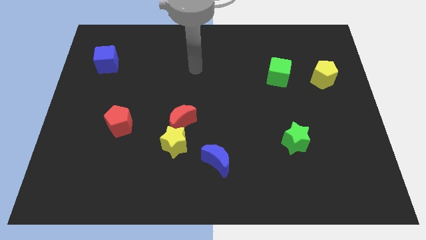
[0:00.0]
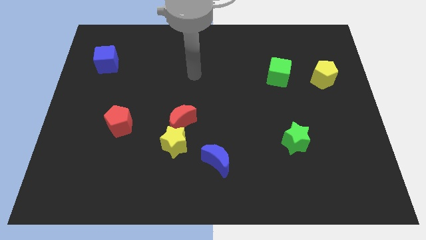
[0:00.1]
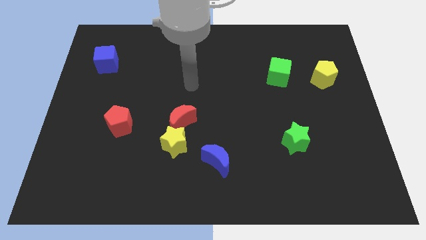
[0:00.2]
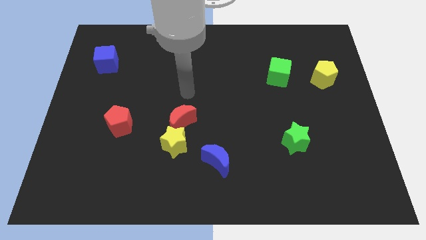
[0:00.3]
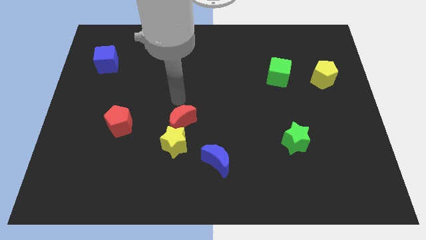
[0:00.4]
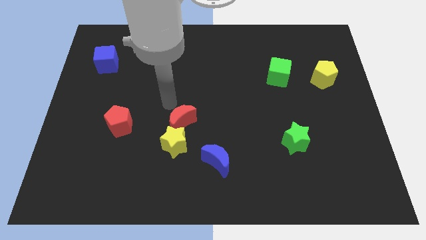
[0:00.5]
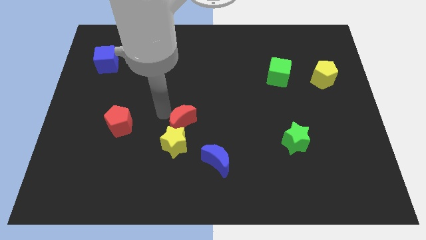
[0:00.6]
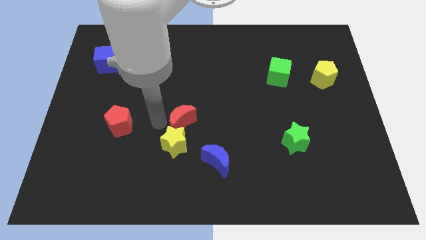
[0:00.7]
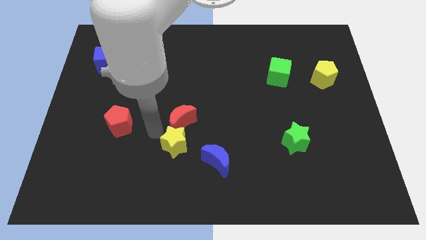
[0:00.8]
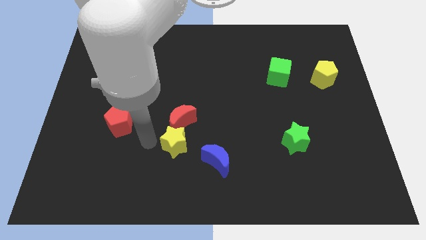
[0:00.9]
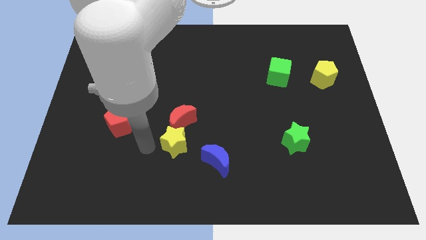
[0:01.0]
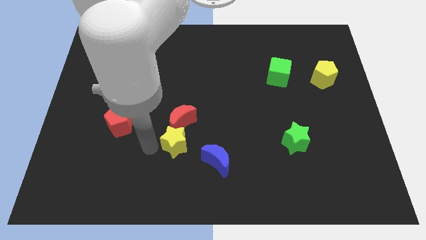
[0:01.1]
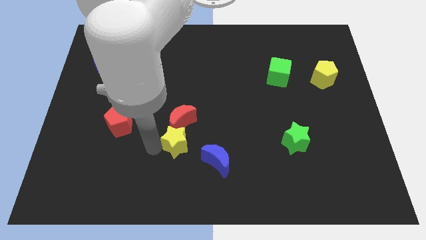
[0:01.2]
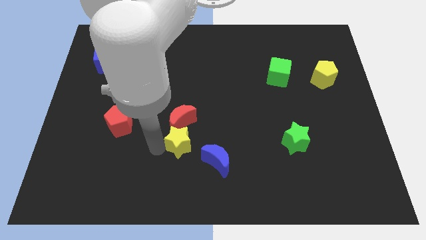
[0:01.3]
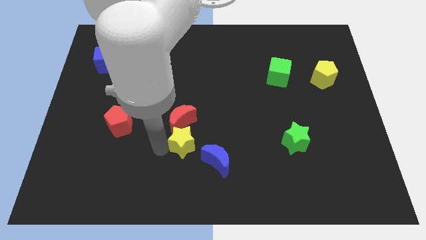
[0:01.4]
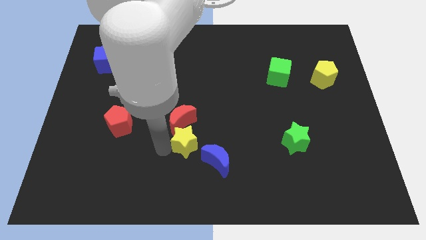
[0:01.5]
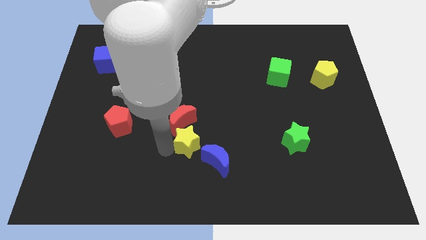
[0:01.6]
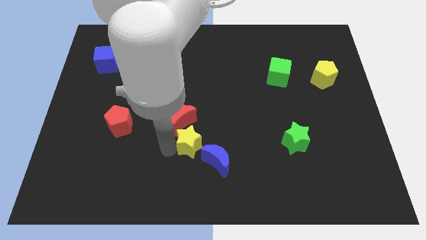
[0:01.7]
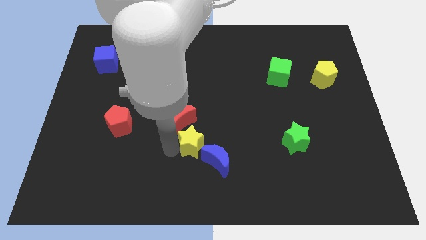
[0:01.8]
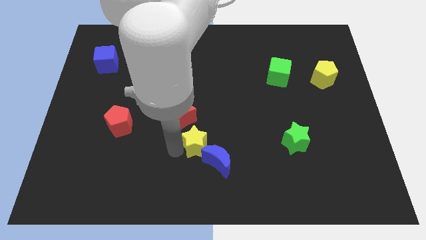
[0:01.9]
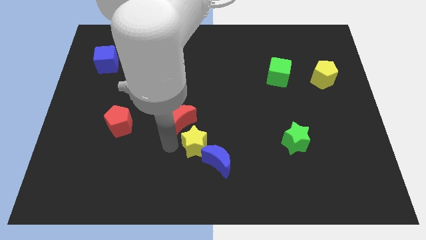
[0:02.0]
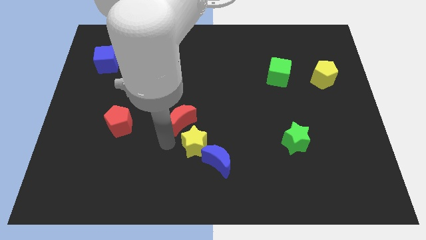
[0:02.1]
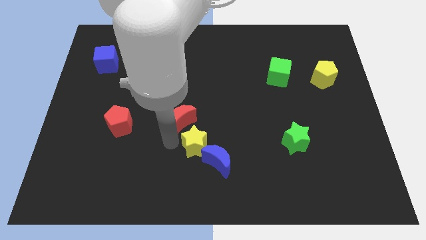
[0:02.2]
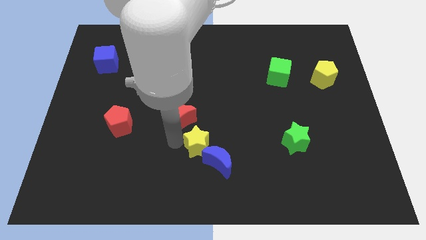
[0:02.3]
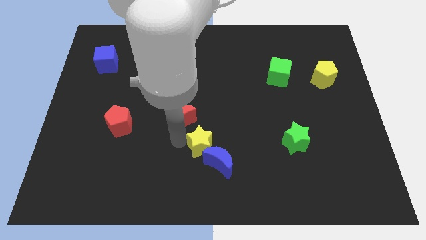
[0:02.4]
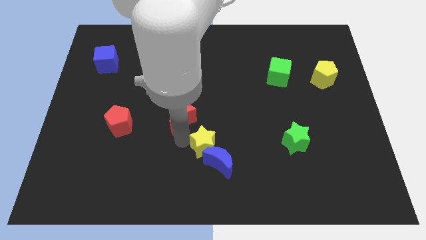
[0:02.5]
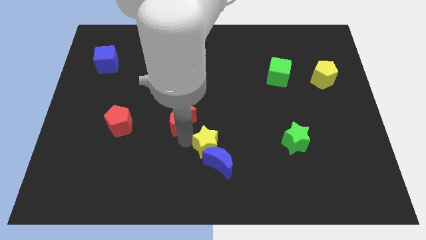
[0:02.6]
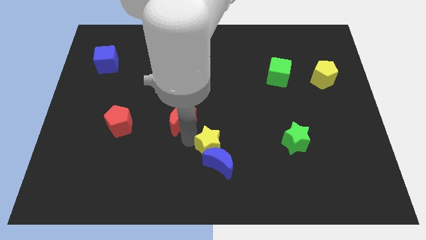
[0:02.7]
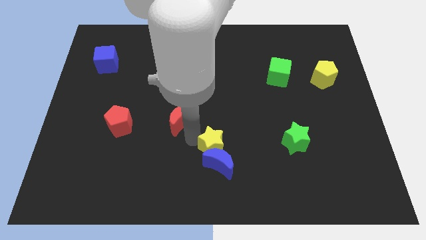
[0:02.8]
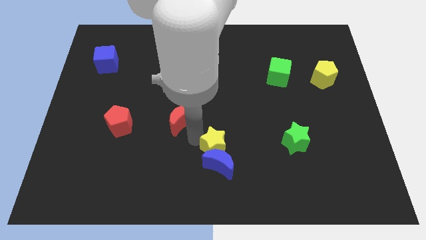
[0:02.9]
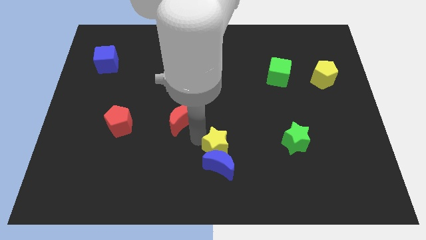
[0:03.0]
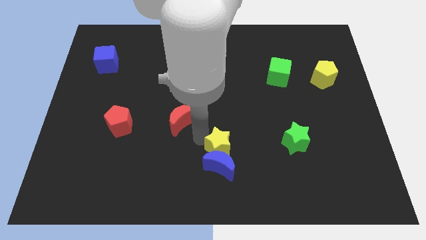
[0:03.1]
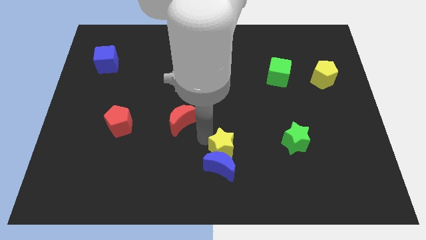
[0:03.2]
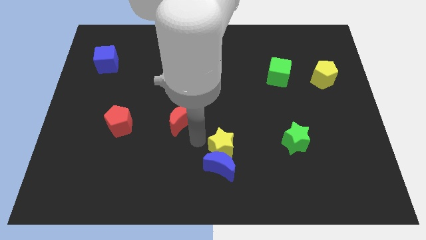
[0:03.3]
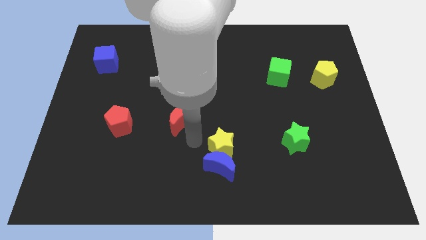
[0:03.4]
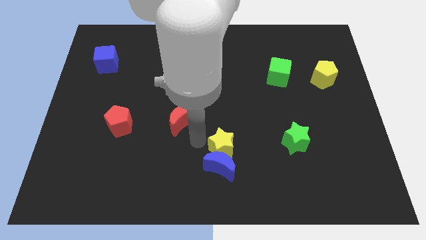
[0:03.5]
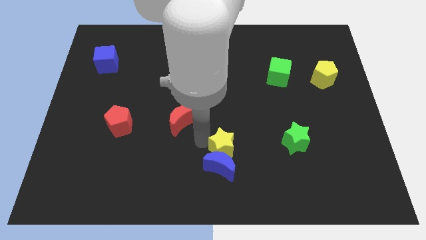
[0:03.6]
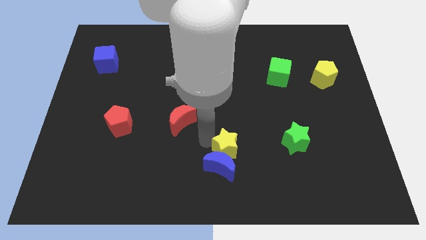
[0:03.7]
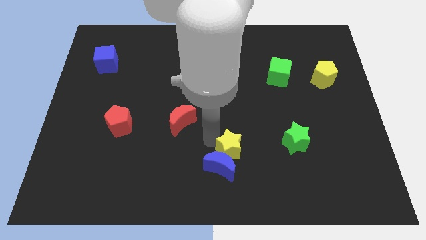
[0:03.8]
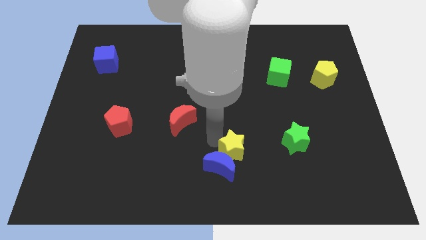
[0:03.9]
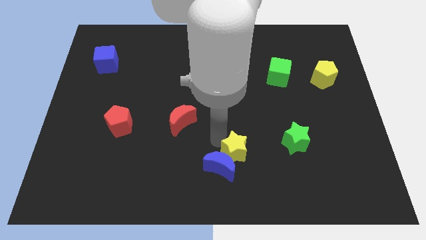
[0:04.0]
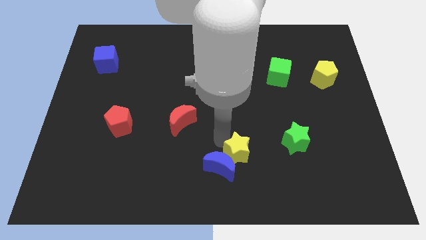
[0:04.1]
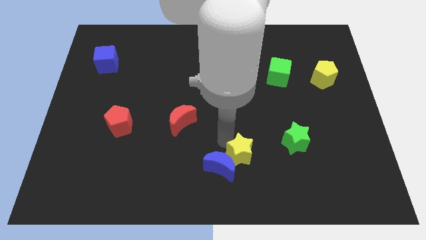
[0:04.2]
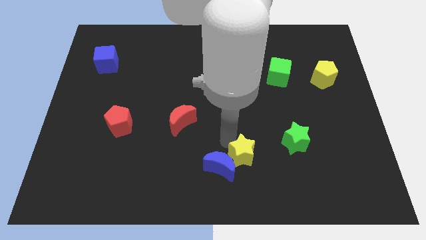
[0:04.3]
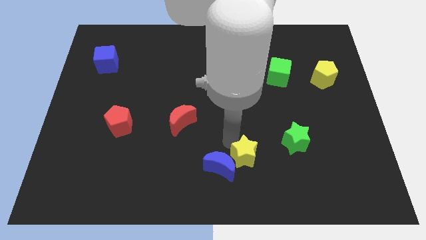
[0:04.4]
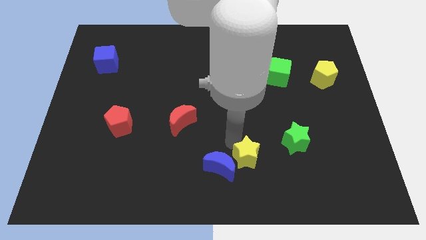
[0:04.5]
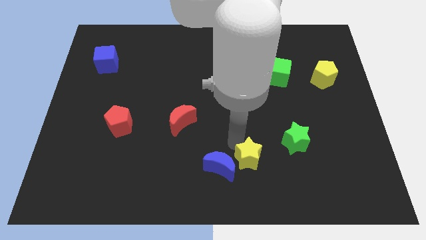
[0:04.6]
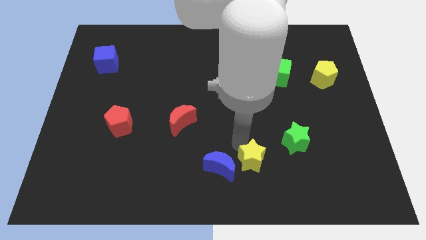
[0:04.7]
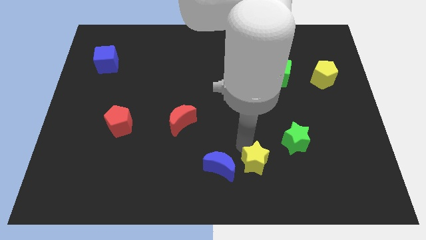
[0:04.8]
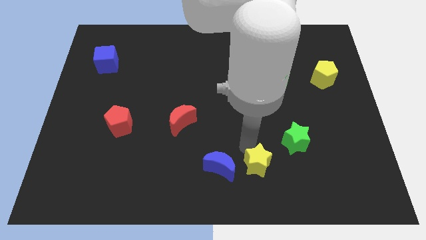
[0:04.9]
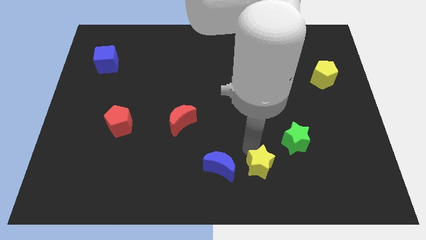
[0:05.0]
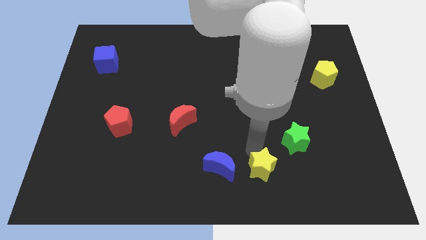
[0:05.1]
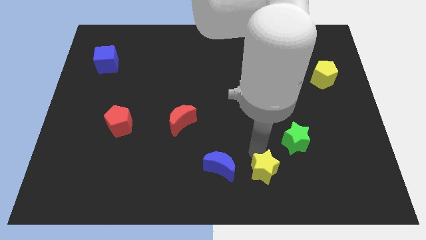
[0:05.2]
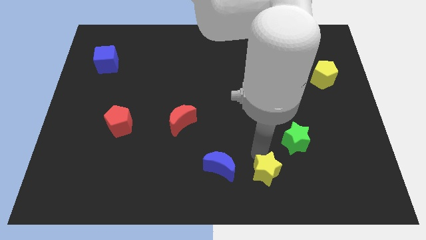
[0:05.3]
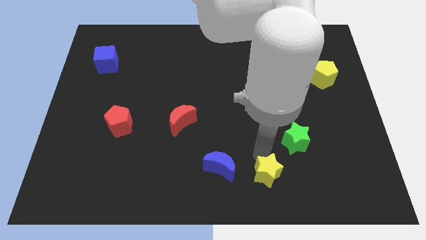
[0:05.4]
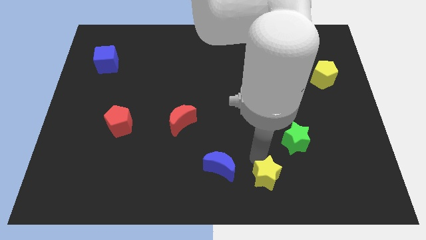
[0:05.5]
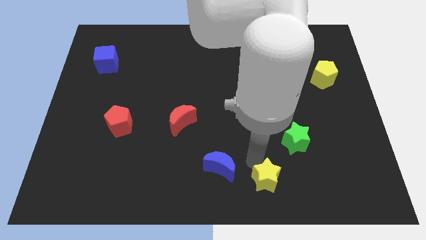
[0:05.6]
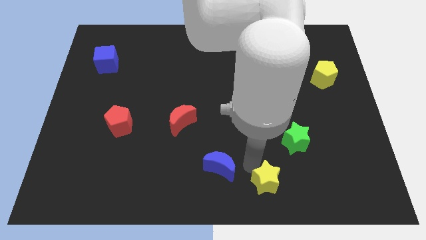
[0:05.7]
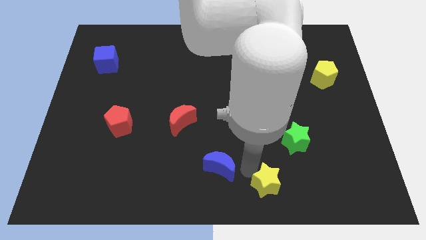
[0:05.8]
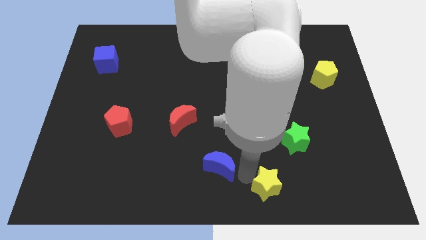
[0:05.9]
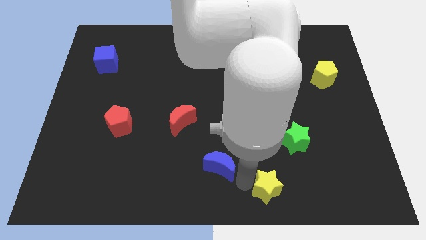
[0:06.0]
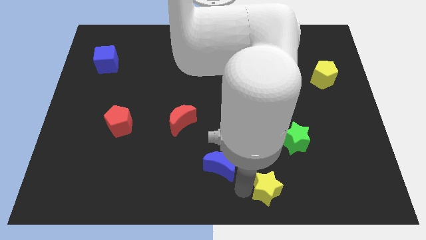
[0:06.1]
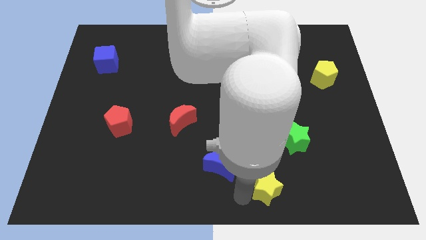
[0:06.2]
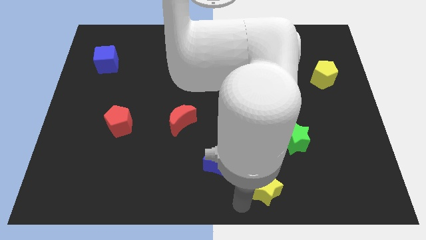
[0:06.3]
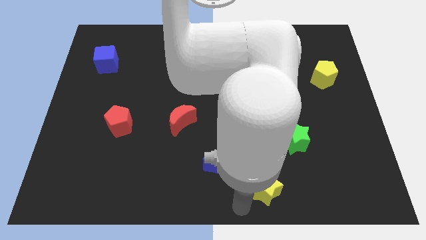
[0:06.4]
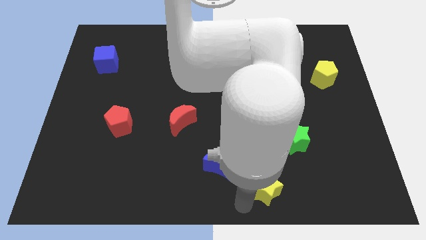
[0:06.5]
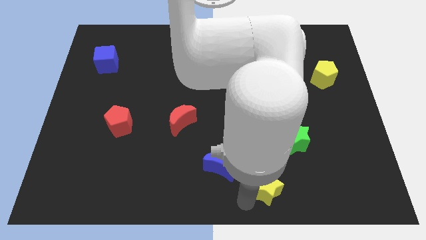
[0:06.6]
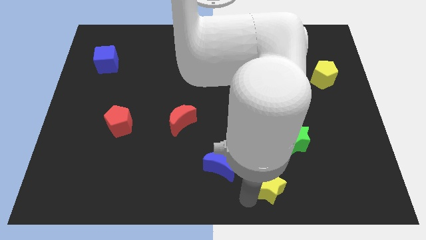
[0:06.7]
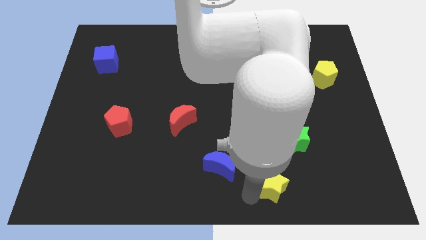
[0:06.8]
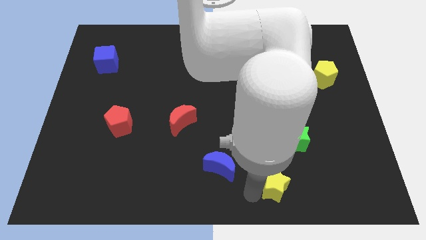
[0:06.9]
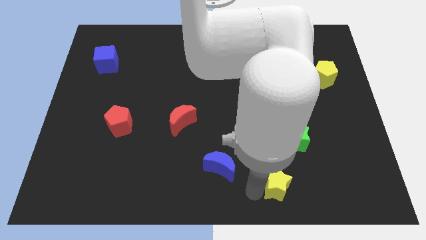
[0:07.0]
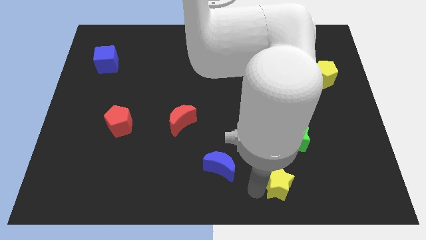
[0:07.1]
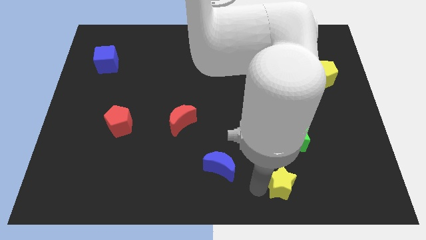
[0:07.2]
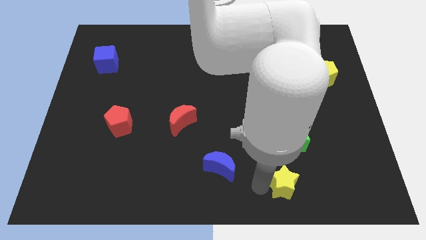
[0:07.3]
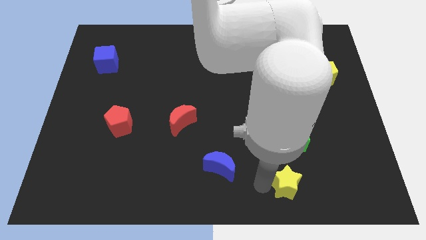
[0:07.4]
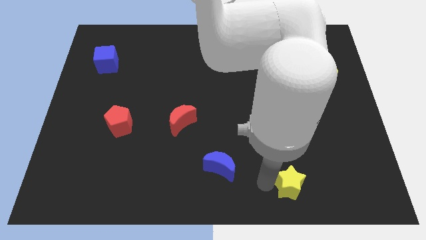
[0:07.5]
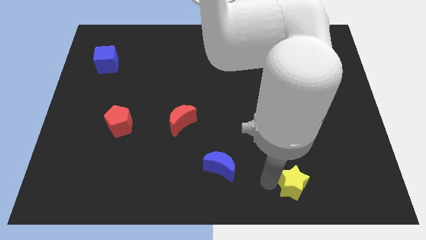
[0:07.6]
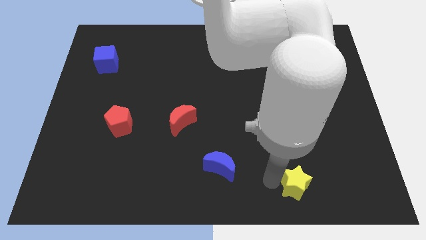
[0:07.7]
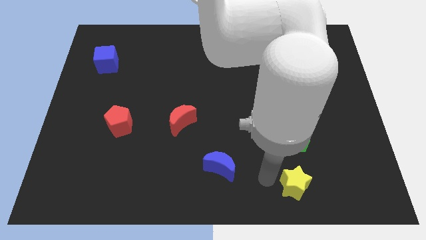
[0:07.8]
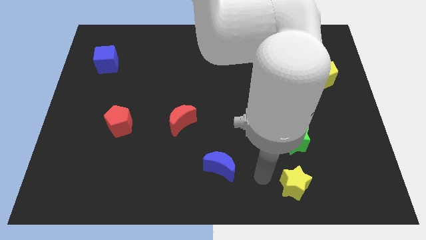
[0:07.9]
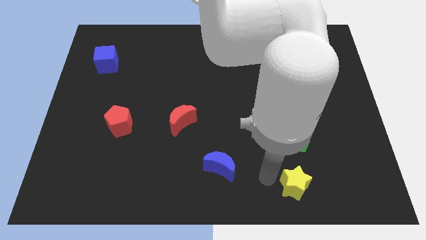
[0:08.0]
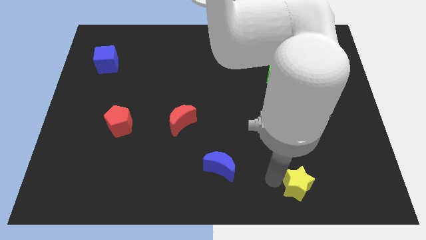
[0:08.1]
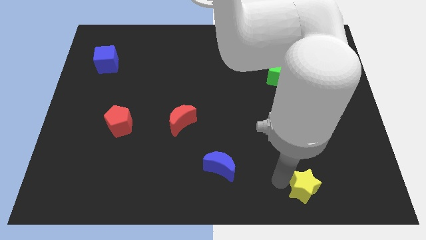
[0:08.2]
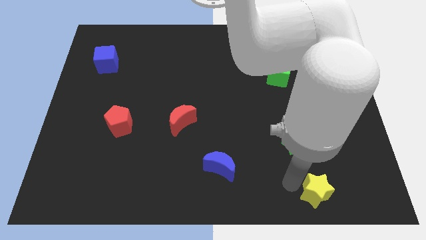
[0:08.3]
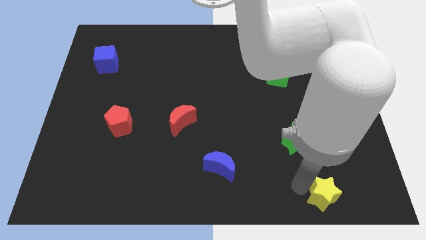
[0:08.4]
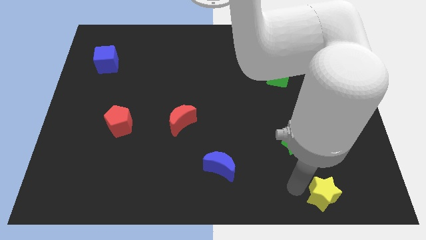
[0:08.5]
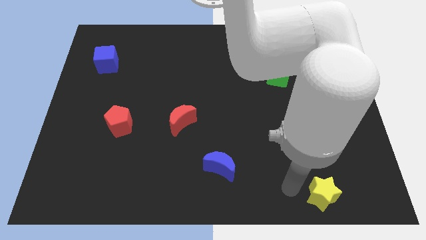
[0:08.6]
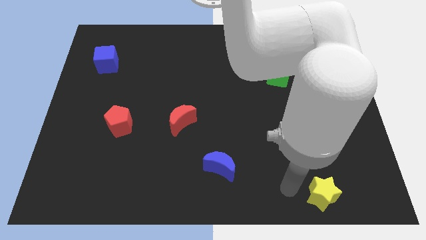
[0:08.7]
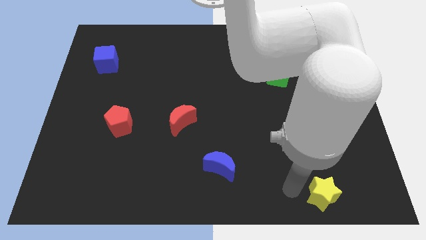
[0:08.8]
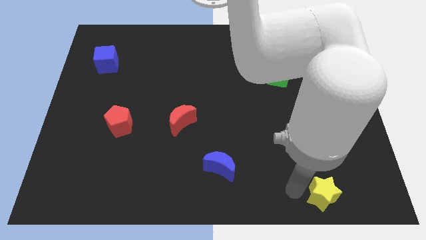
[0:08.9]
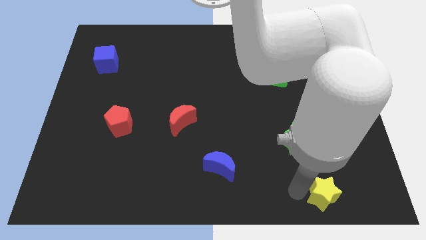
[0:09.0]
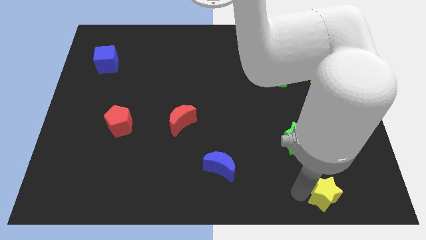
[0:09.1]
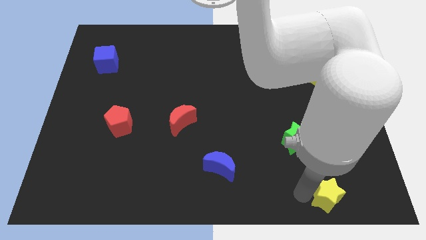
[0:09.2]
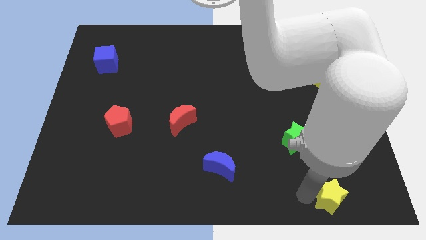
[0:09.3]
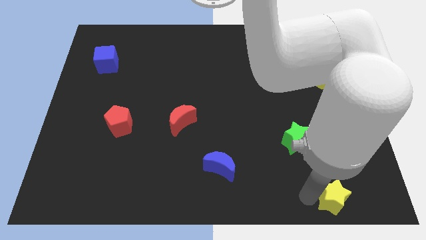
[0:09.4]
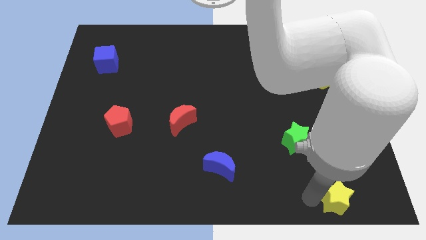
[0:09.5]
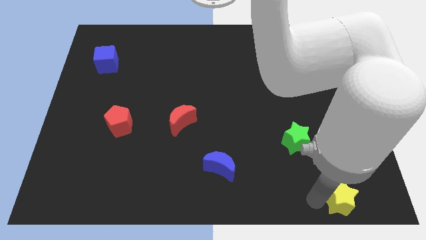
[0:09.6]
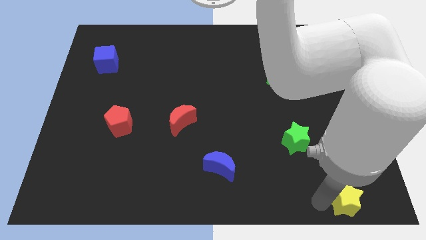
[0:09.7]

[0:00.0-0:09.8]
slide the yellow star to the lower right corner
